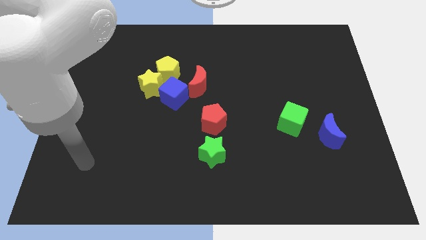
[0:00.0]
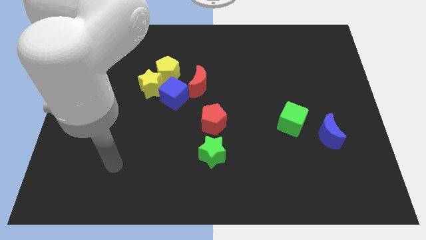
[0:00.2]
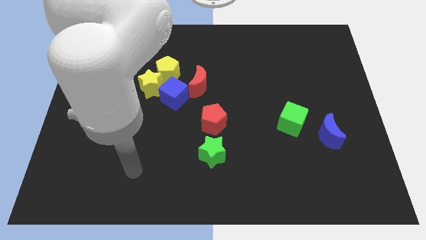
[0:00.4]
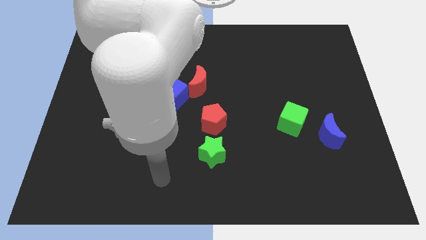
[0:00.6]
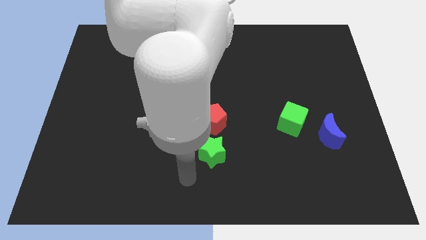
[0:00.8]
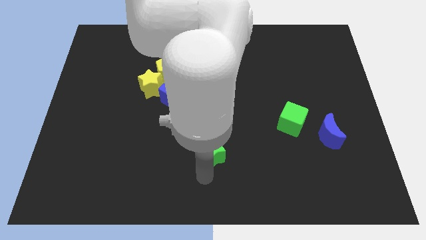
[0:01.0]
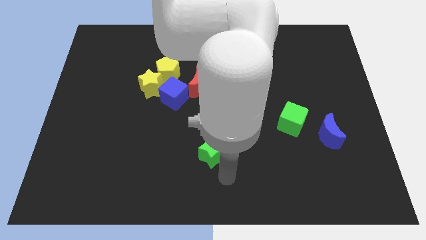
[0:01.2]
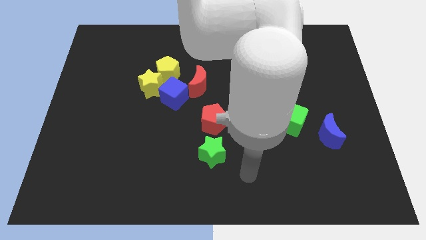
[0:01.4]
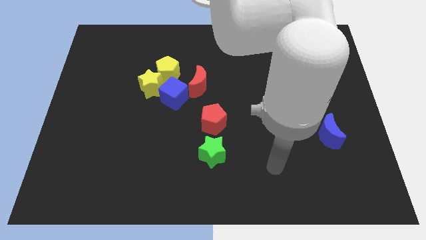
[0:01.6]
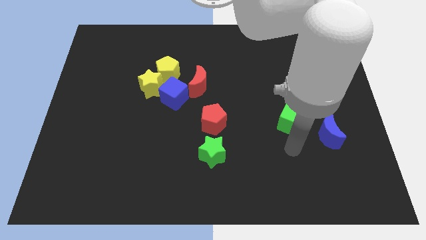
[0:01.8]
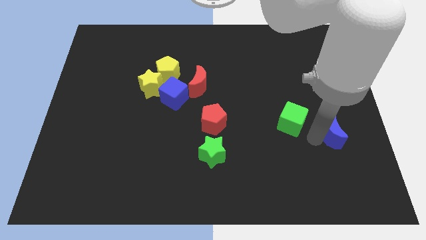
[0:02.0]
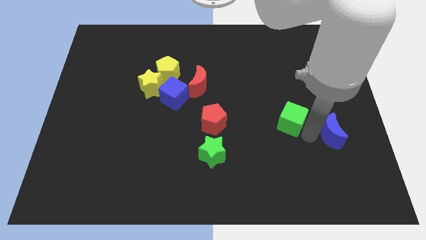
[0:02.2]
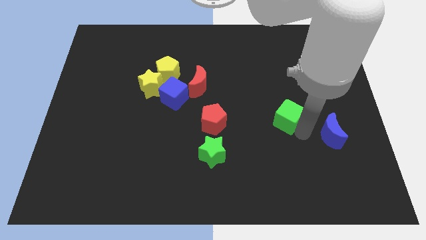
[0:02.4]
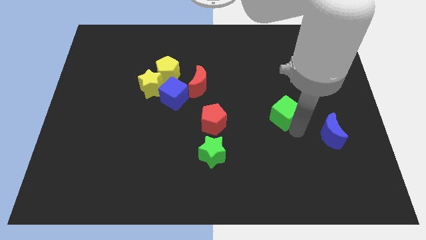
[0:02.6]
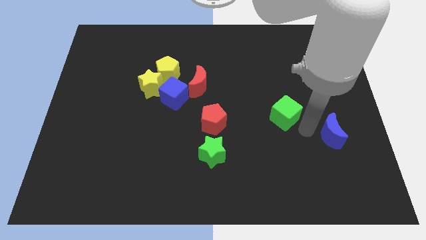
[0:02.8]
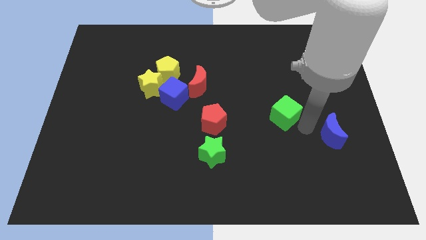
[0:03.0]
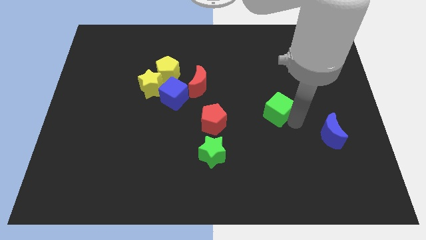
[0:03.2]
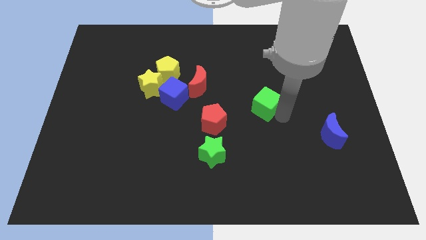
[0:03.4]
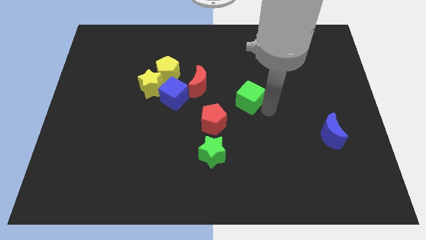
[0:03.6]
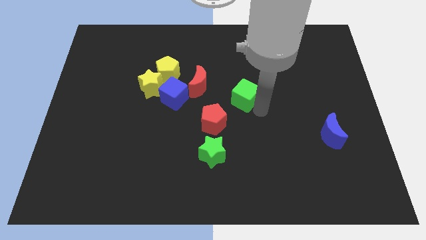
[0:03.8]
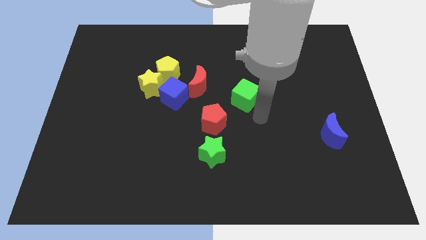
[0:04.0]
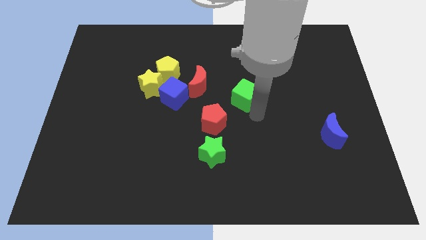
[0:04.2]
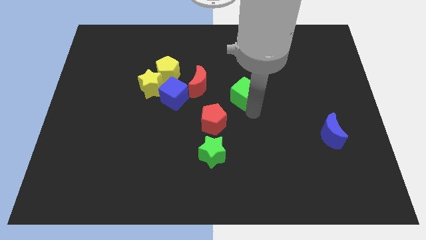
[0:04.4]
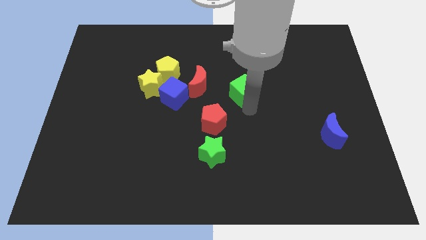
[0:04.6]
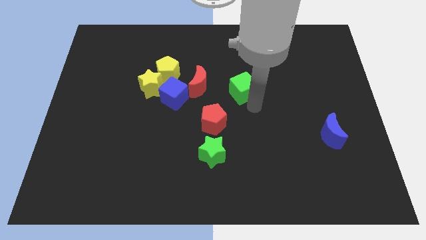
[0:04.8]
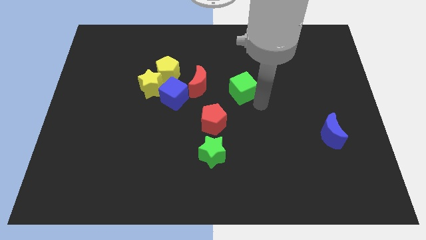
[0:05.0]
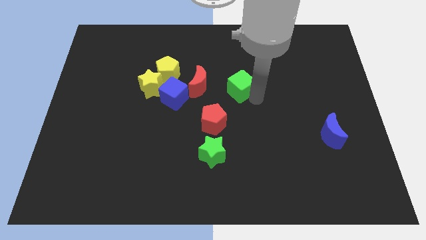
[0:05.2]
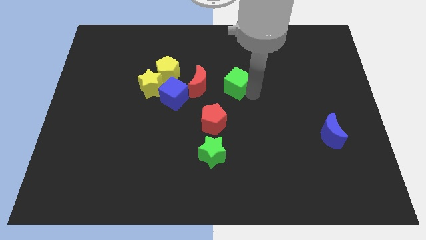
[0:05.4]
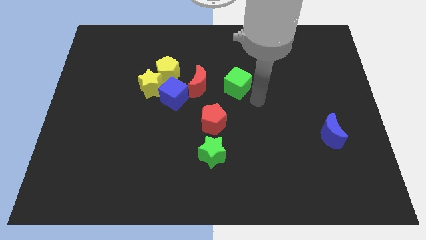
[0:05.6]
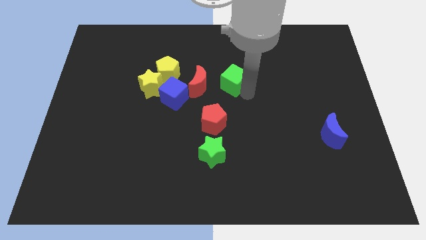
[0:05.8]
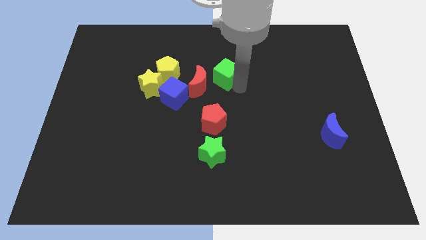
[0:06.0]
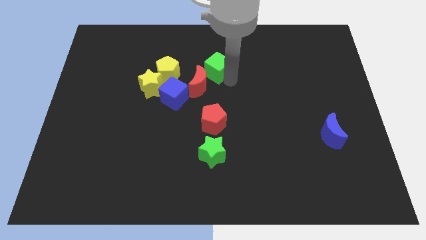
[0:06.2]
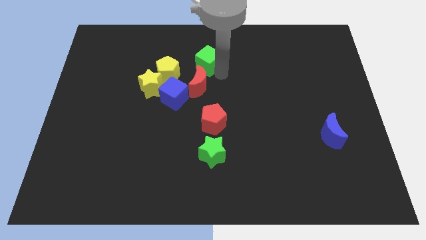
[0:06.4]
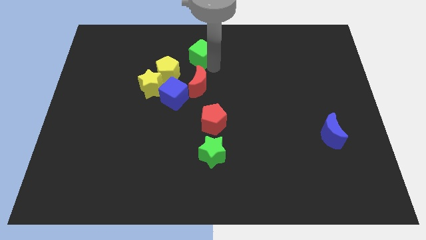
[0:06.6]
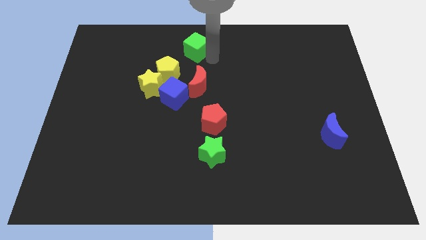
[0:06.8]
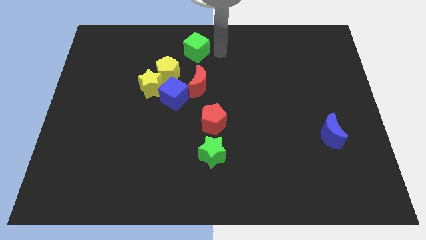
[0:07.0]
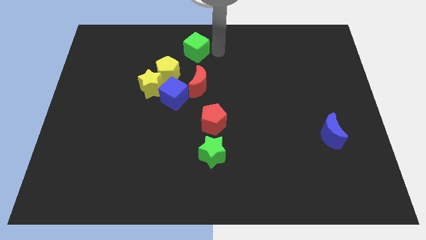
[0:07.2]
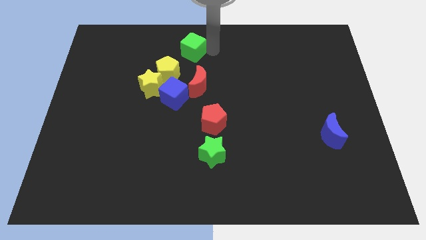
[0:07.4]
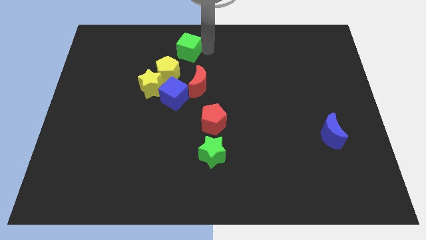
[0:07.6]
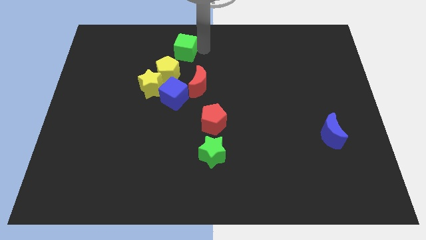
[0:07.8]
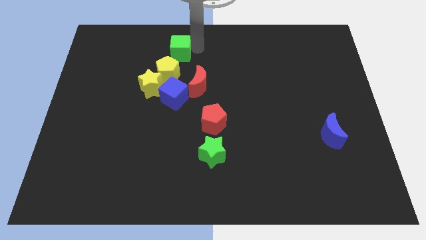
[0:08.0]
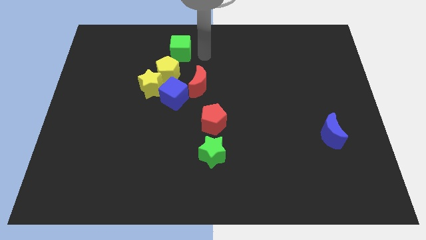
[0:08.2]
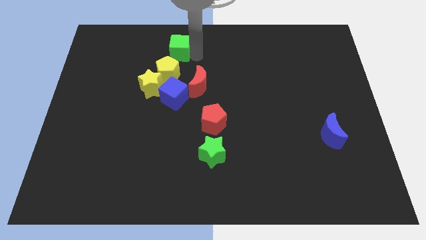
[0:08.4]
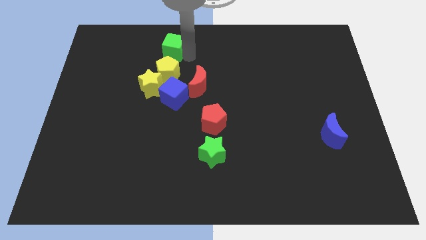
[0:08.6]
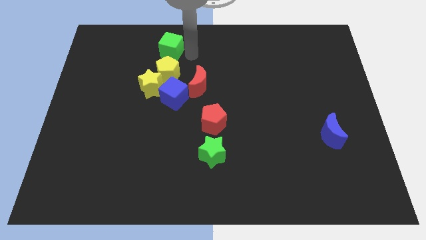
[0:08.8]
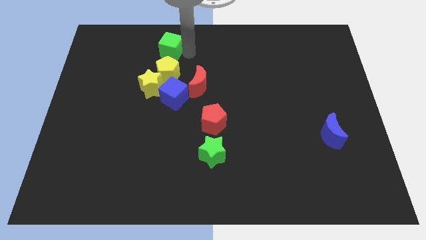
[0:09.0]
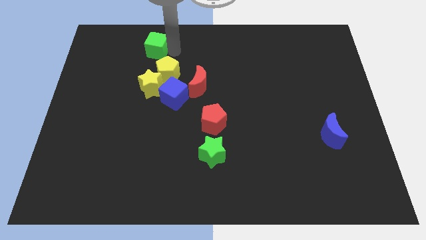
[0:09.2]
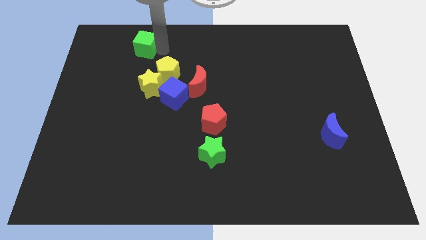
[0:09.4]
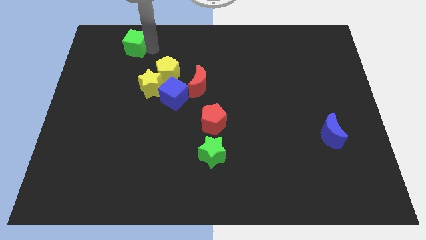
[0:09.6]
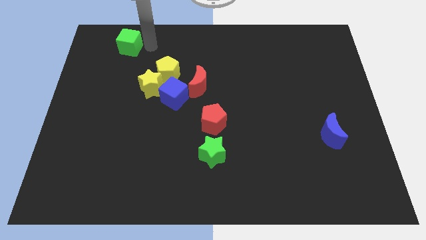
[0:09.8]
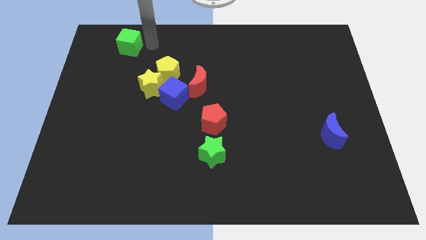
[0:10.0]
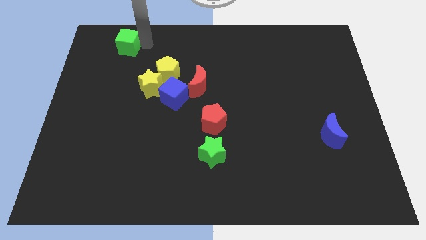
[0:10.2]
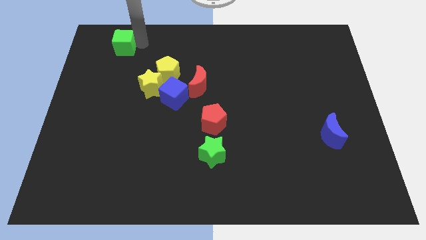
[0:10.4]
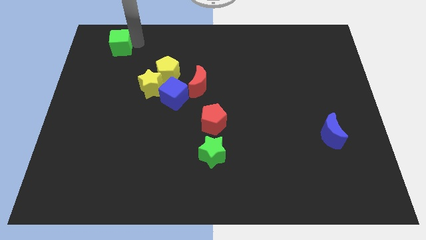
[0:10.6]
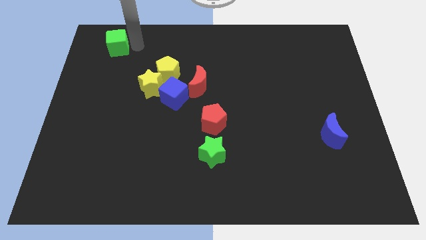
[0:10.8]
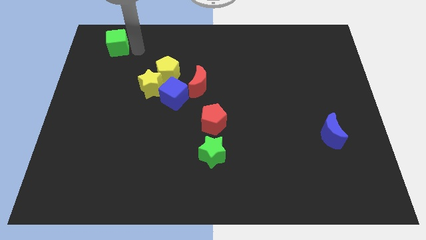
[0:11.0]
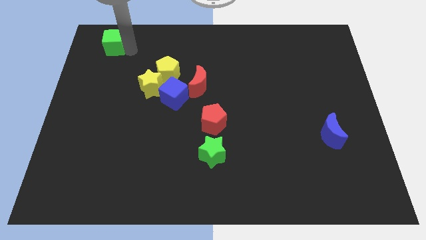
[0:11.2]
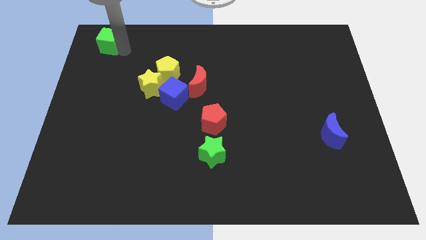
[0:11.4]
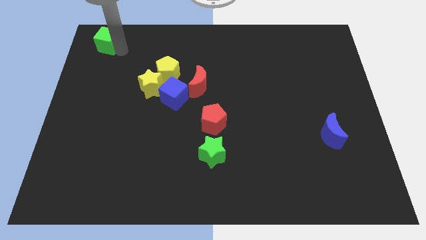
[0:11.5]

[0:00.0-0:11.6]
slide the green cube to the top left of the board

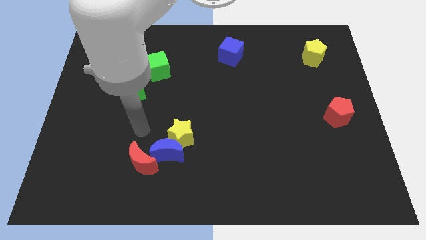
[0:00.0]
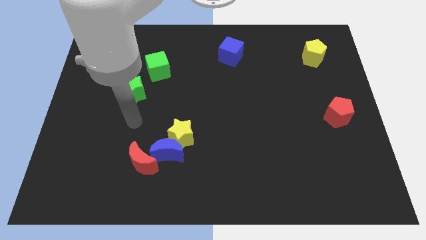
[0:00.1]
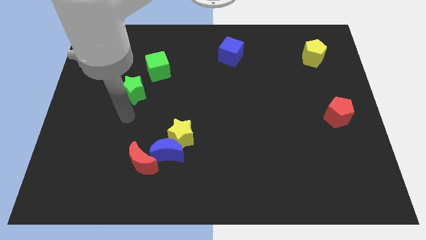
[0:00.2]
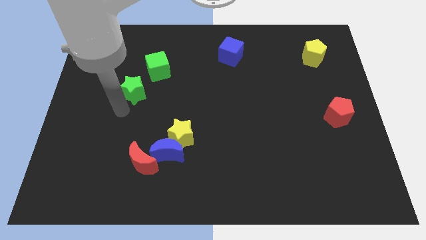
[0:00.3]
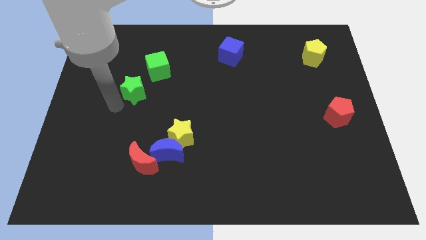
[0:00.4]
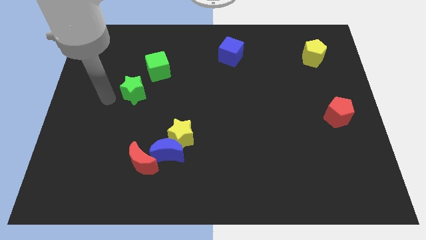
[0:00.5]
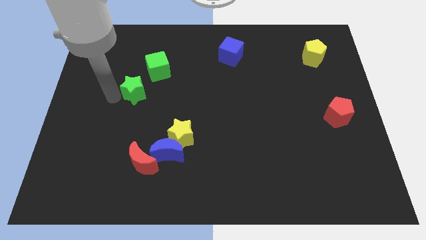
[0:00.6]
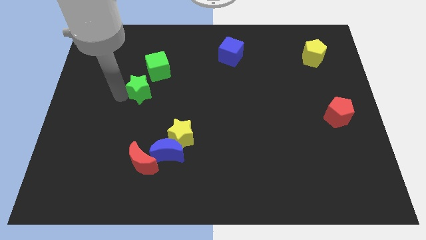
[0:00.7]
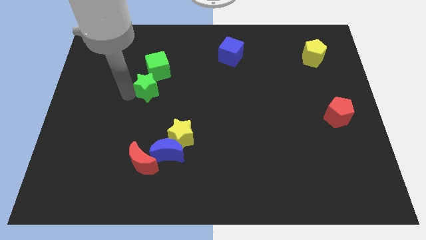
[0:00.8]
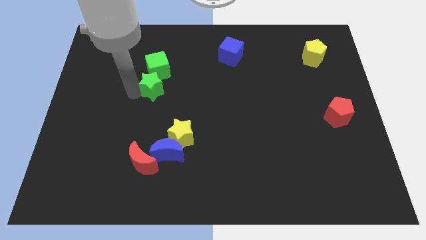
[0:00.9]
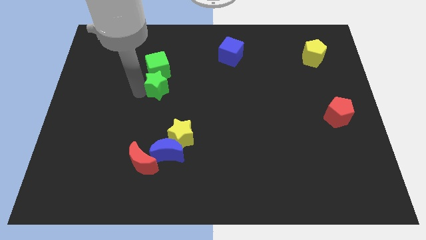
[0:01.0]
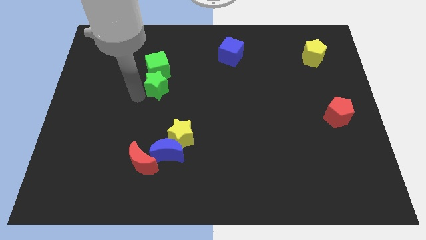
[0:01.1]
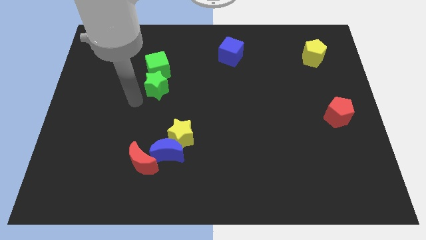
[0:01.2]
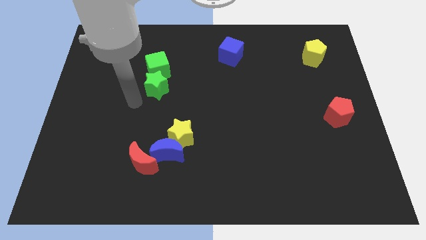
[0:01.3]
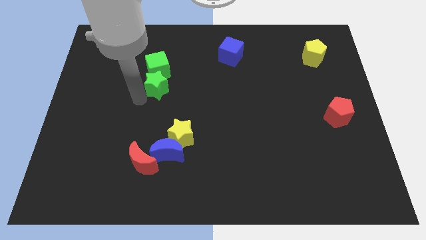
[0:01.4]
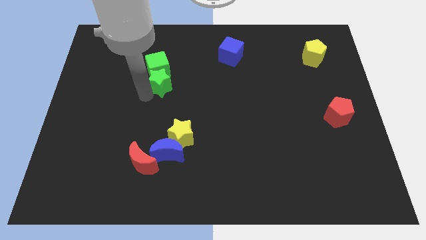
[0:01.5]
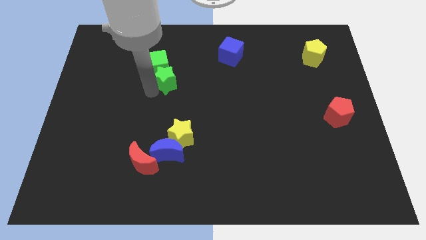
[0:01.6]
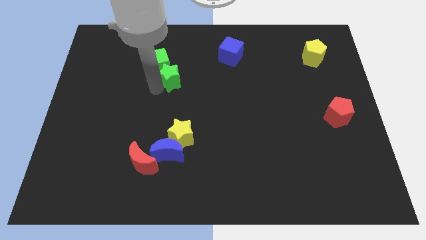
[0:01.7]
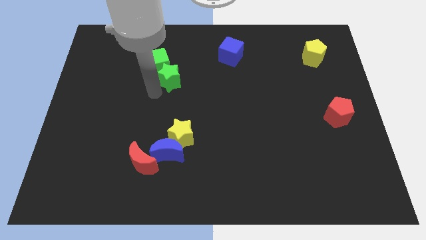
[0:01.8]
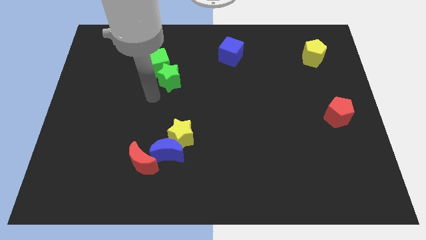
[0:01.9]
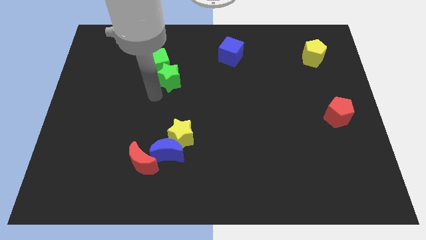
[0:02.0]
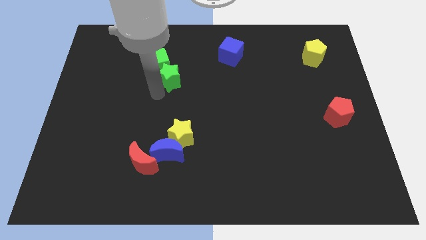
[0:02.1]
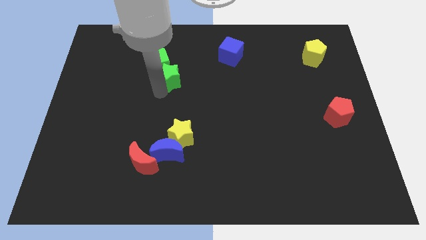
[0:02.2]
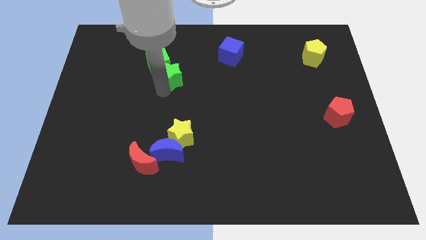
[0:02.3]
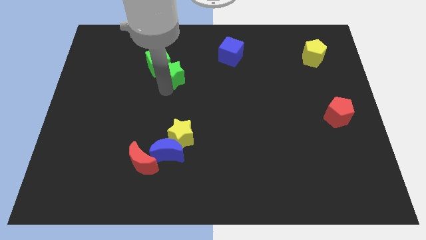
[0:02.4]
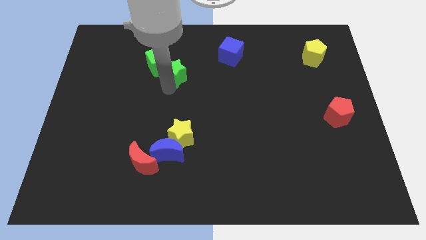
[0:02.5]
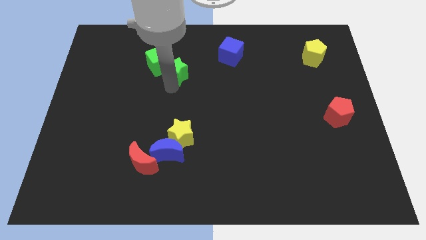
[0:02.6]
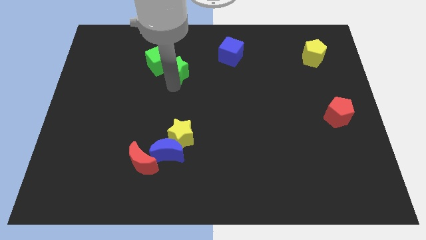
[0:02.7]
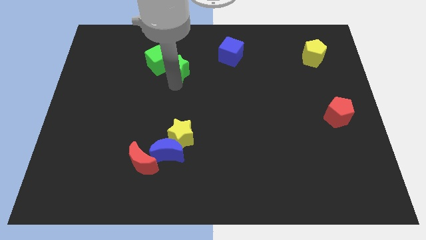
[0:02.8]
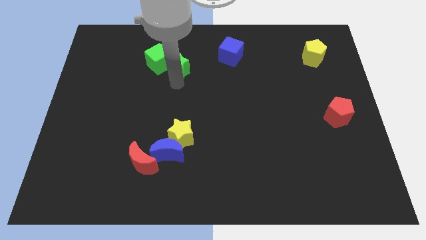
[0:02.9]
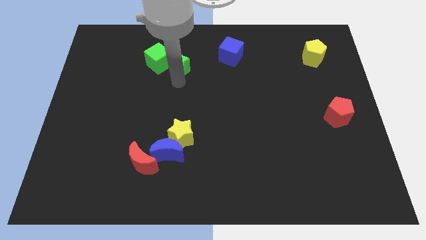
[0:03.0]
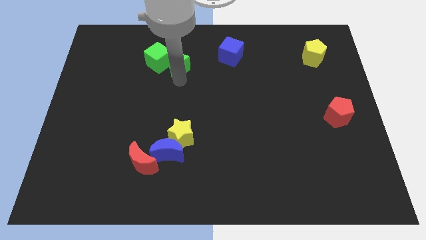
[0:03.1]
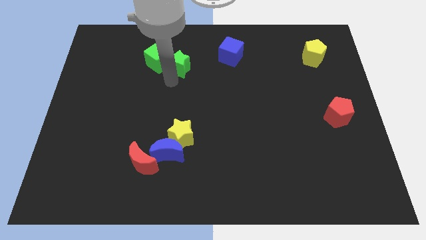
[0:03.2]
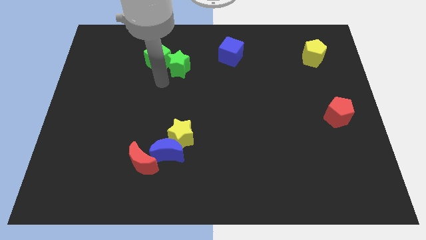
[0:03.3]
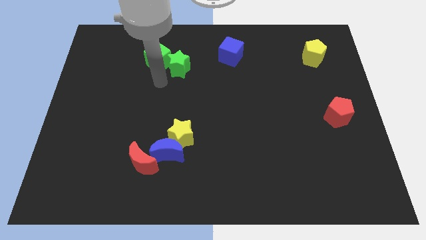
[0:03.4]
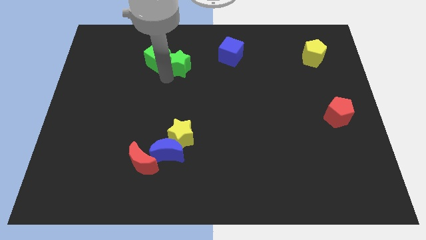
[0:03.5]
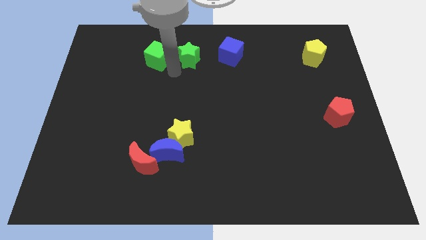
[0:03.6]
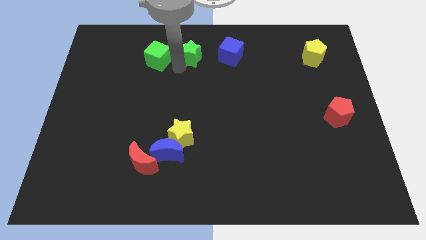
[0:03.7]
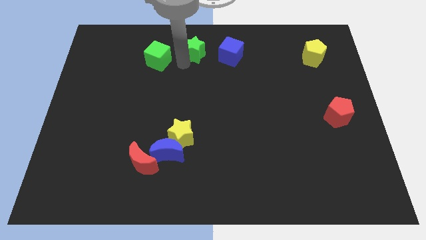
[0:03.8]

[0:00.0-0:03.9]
put the green star to the top
